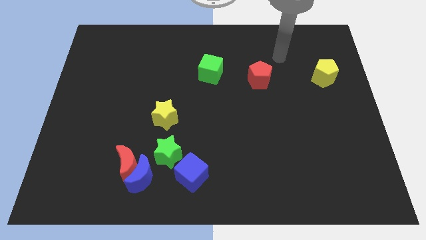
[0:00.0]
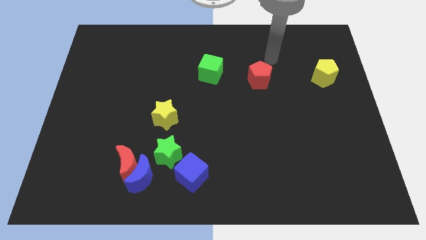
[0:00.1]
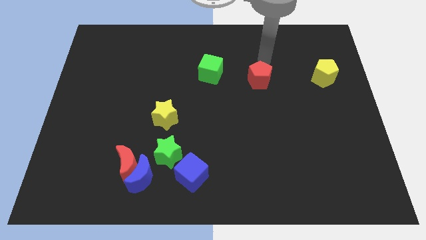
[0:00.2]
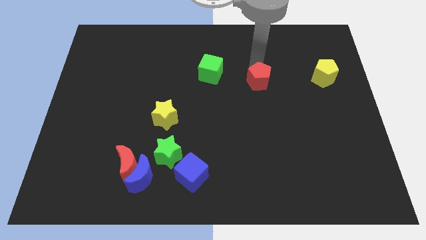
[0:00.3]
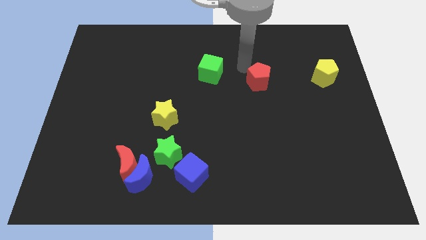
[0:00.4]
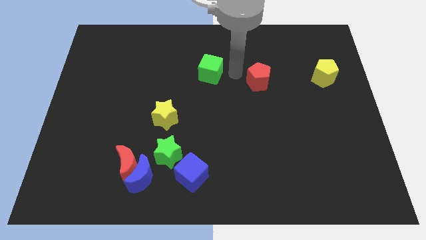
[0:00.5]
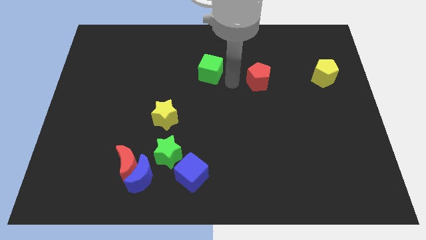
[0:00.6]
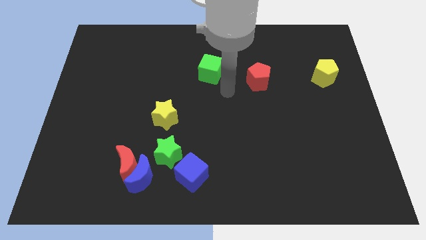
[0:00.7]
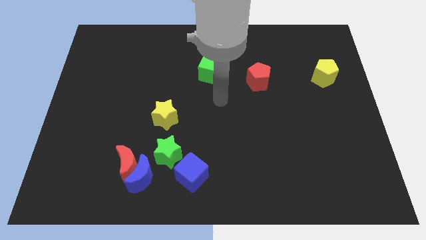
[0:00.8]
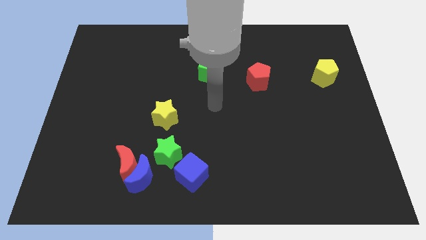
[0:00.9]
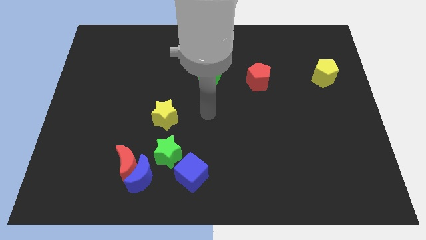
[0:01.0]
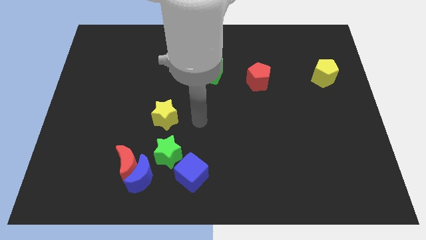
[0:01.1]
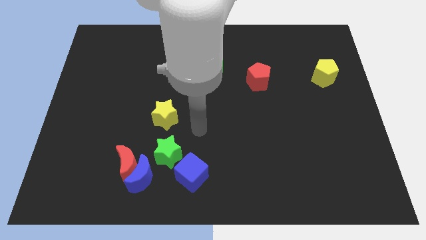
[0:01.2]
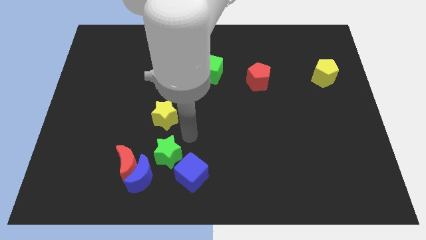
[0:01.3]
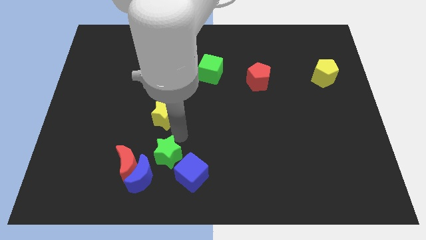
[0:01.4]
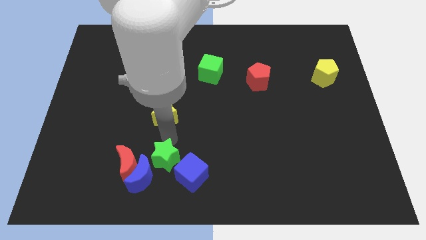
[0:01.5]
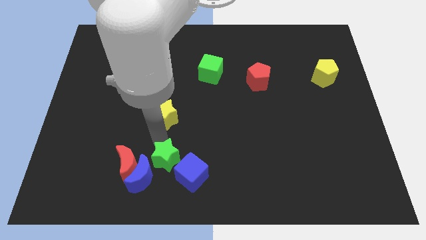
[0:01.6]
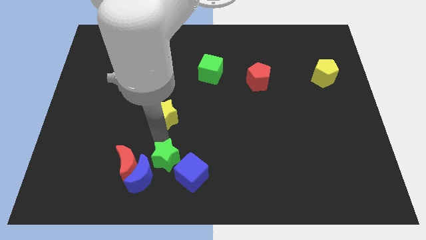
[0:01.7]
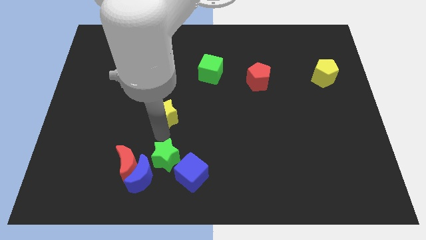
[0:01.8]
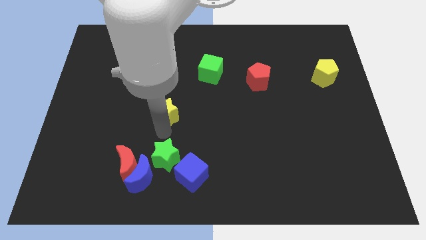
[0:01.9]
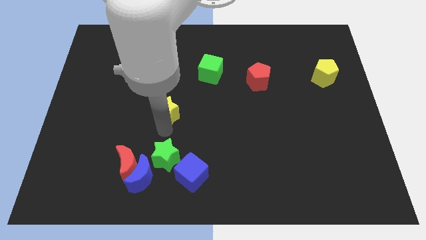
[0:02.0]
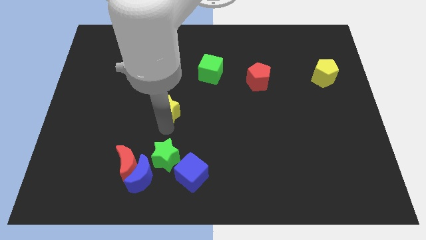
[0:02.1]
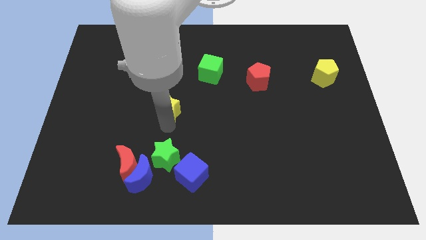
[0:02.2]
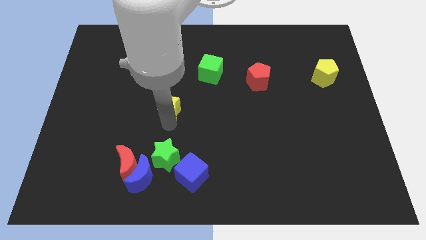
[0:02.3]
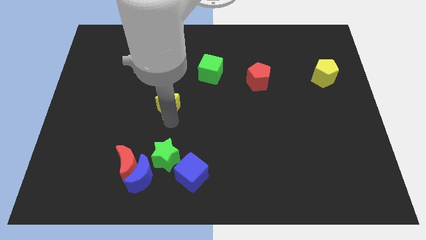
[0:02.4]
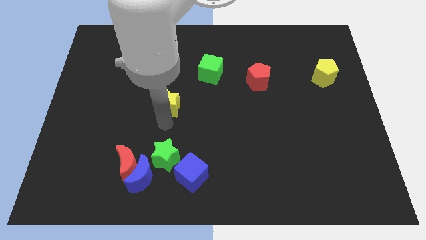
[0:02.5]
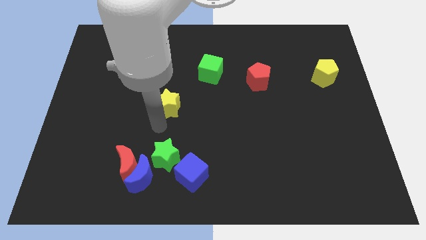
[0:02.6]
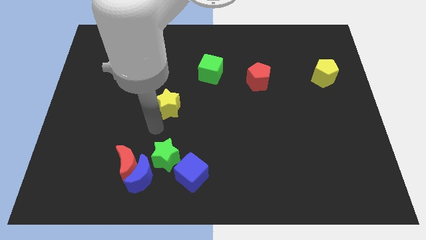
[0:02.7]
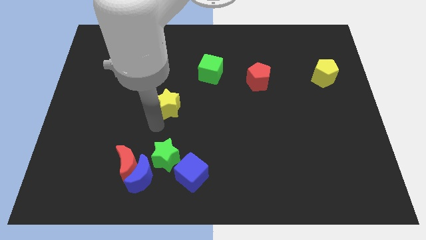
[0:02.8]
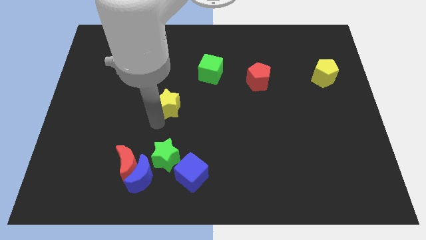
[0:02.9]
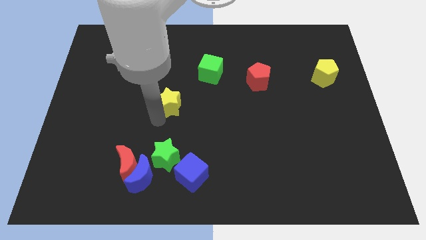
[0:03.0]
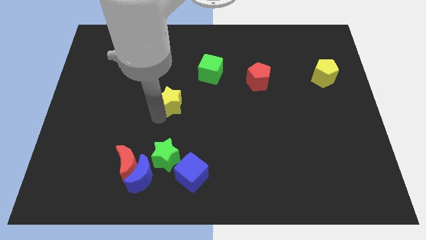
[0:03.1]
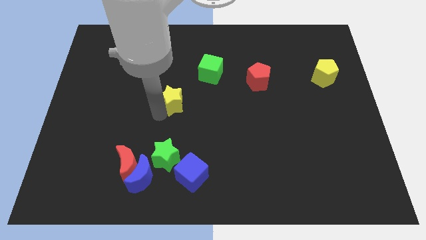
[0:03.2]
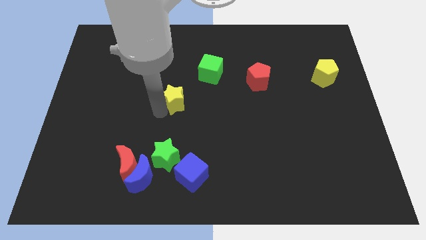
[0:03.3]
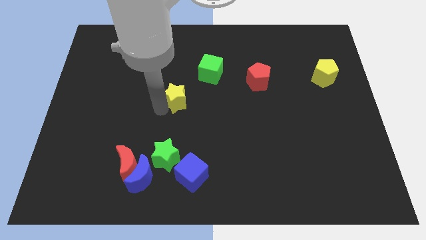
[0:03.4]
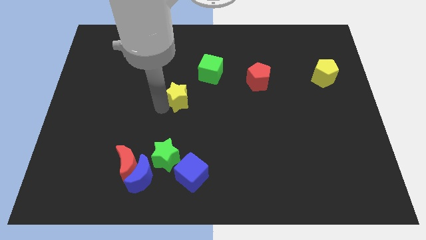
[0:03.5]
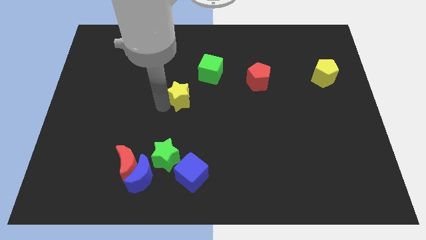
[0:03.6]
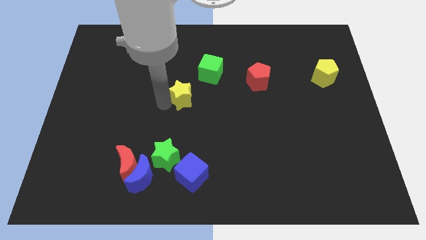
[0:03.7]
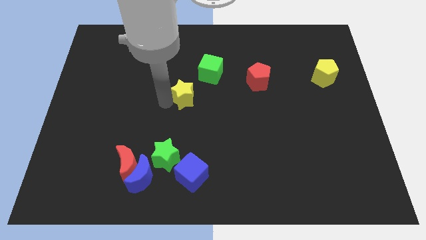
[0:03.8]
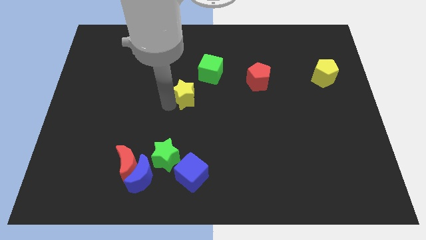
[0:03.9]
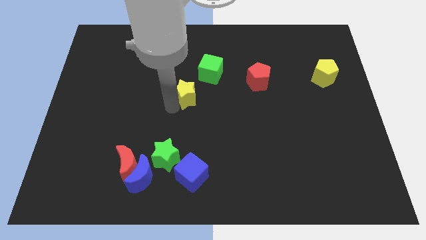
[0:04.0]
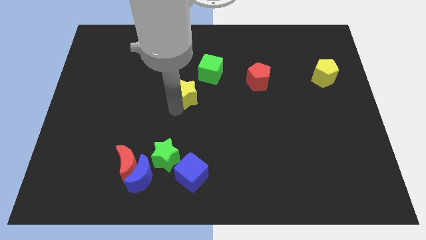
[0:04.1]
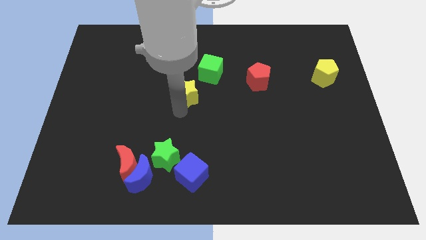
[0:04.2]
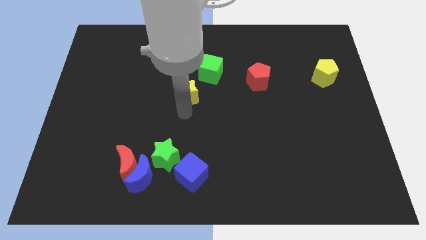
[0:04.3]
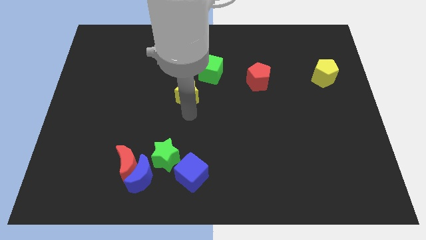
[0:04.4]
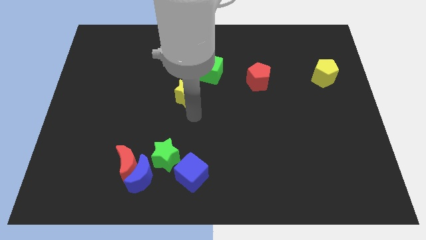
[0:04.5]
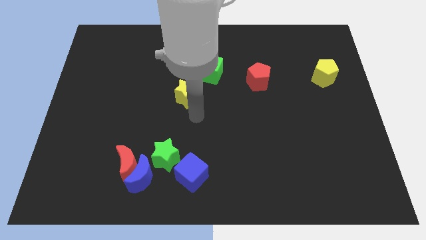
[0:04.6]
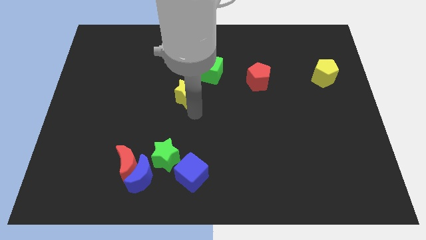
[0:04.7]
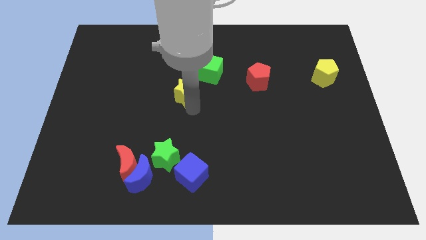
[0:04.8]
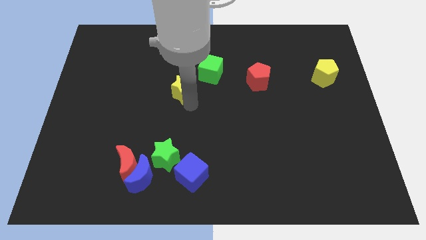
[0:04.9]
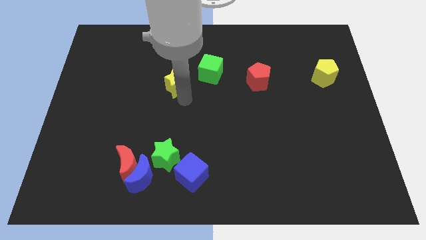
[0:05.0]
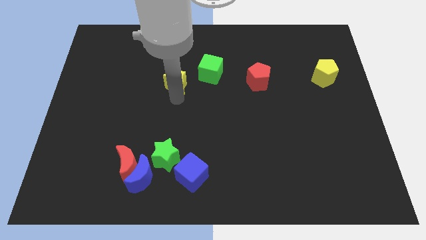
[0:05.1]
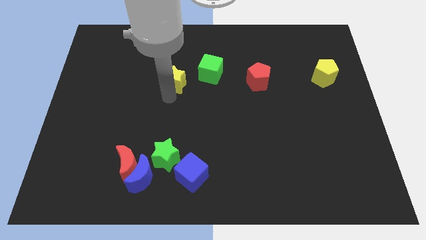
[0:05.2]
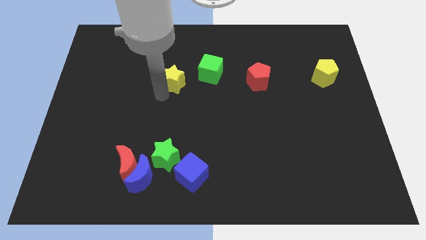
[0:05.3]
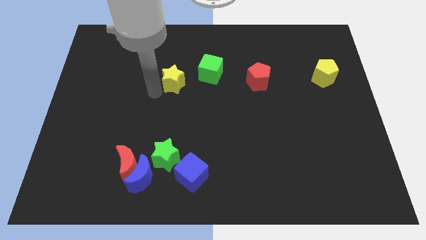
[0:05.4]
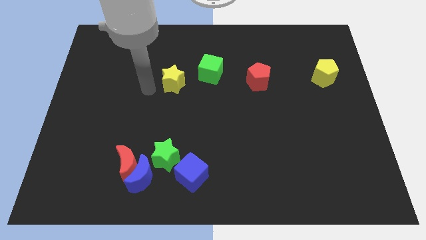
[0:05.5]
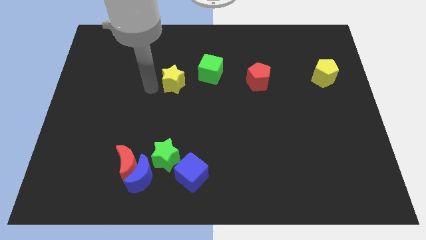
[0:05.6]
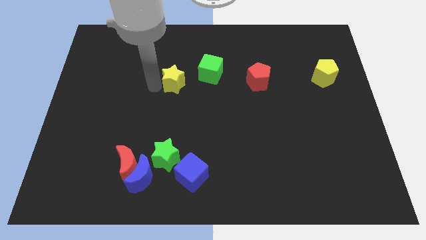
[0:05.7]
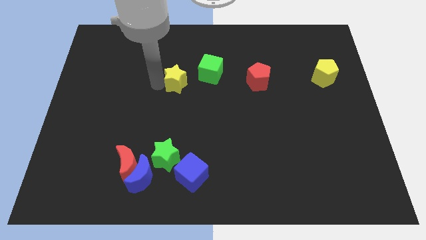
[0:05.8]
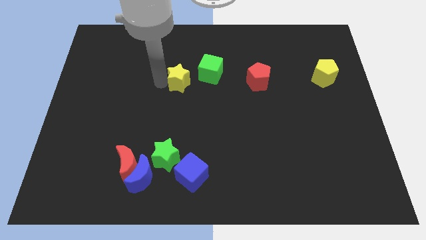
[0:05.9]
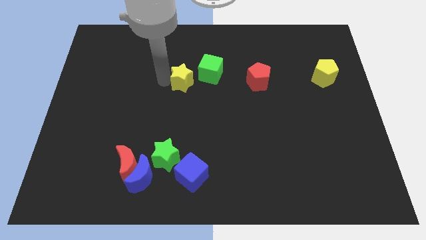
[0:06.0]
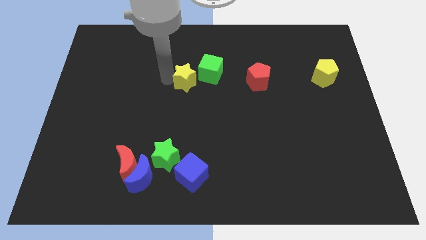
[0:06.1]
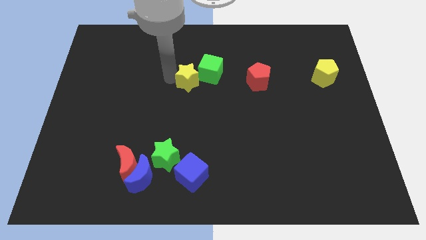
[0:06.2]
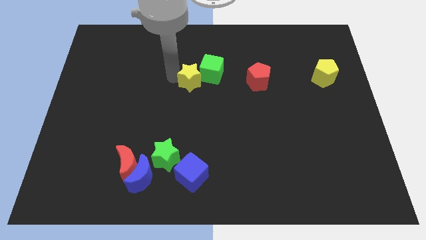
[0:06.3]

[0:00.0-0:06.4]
move the yellow star next to the green cube
